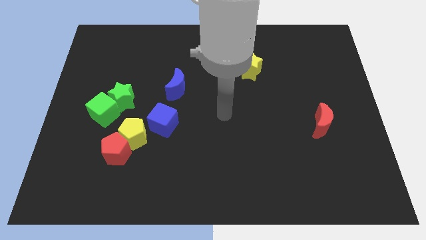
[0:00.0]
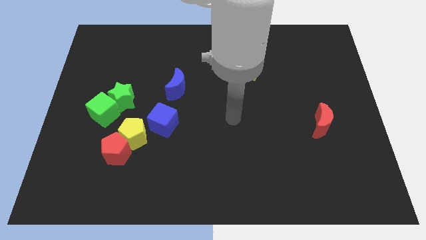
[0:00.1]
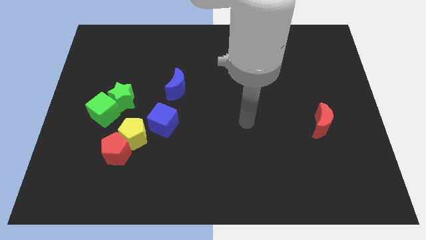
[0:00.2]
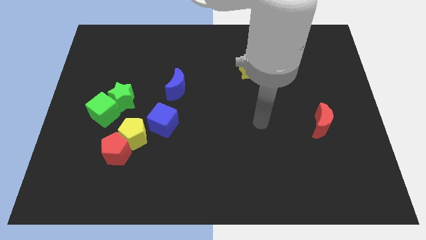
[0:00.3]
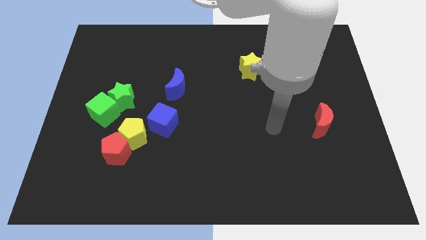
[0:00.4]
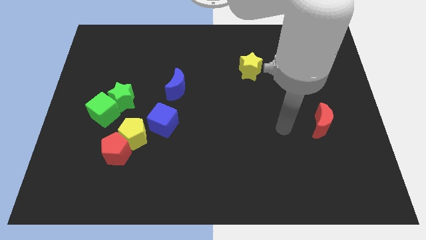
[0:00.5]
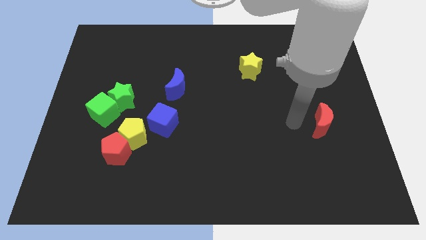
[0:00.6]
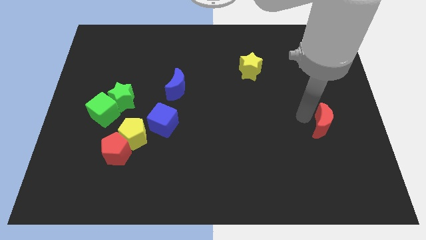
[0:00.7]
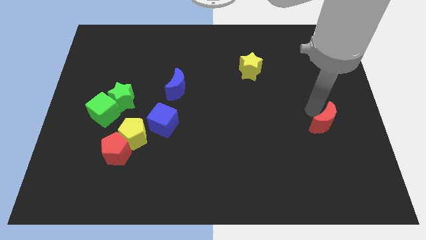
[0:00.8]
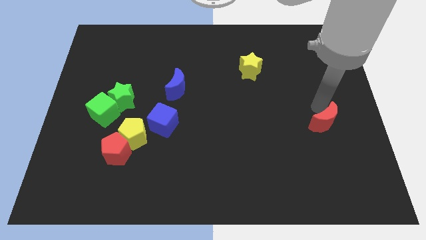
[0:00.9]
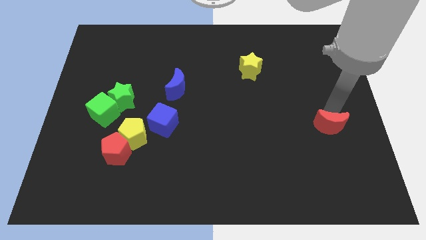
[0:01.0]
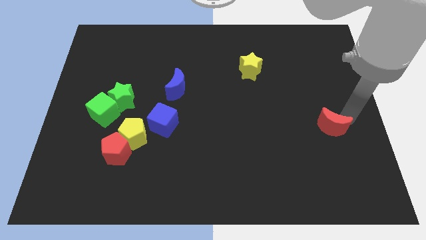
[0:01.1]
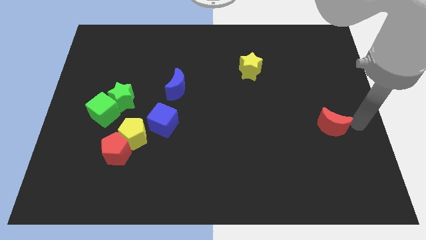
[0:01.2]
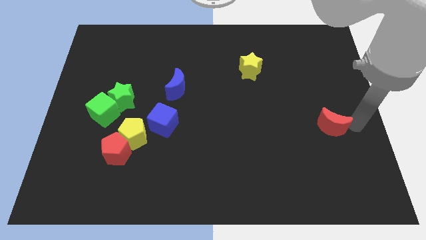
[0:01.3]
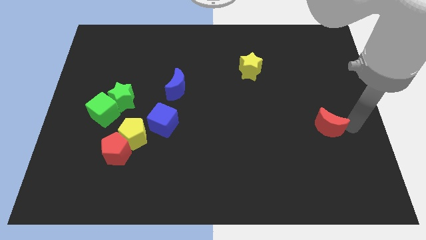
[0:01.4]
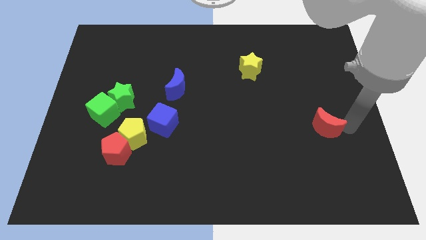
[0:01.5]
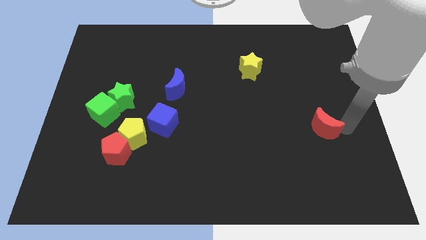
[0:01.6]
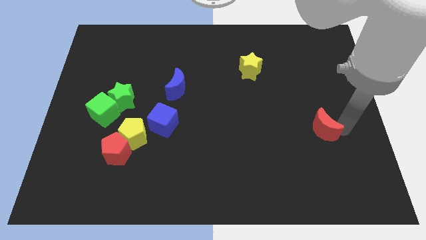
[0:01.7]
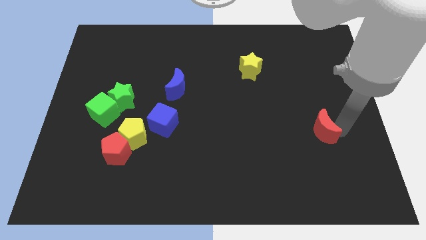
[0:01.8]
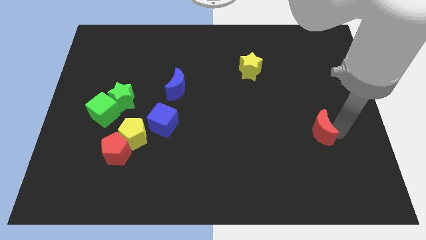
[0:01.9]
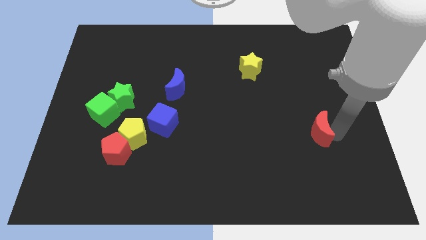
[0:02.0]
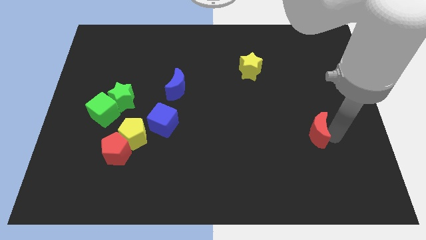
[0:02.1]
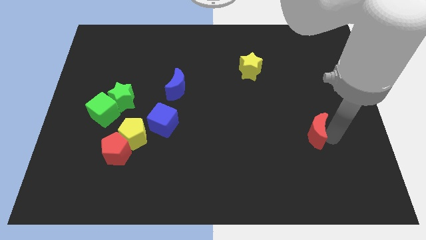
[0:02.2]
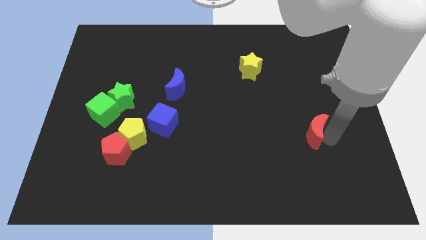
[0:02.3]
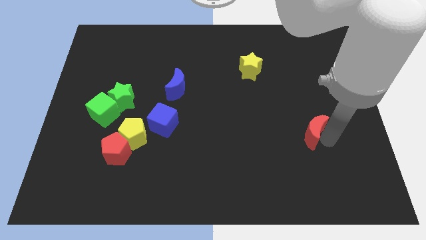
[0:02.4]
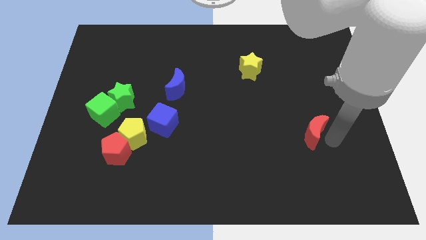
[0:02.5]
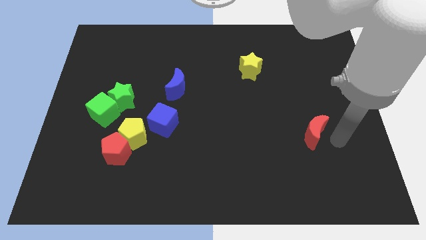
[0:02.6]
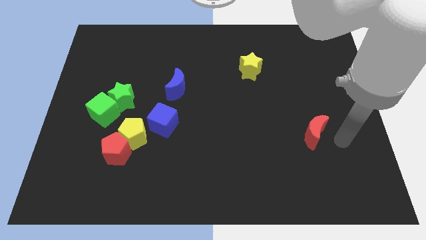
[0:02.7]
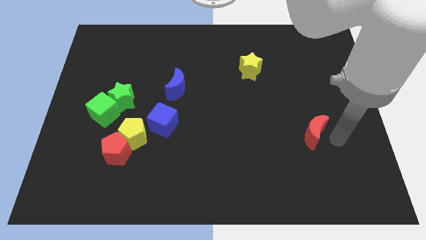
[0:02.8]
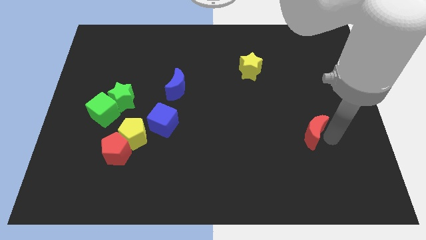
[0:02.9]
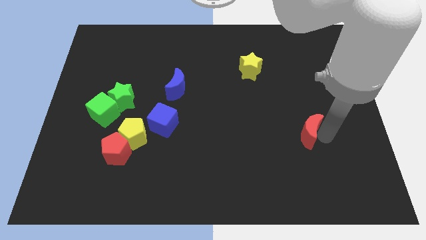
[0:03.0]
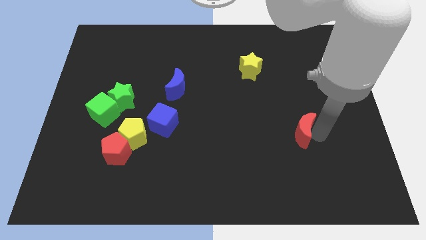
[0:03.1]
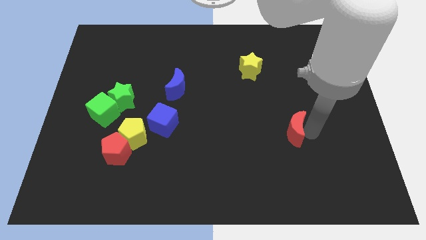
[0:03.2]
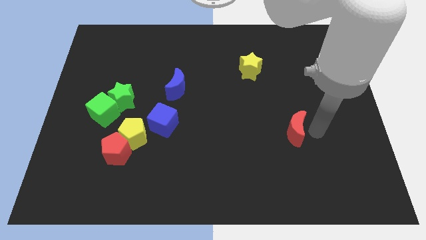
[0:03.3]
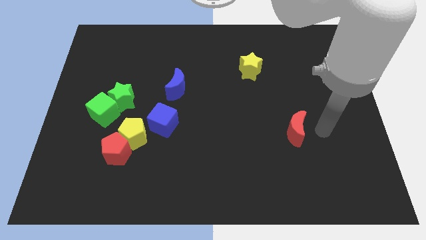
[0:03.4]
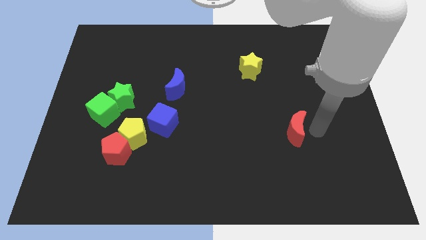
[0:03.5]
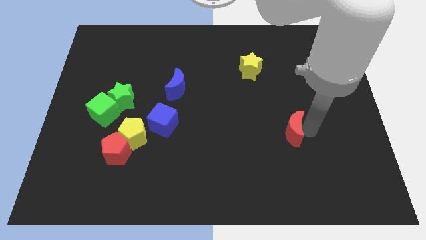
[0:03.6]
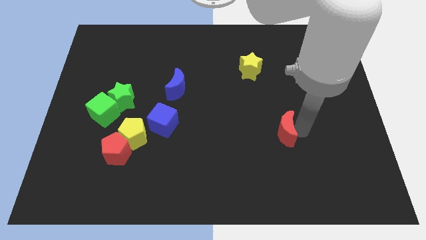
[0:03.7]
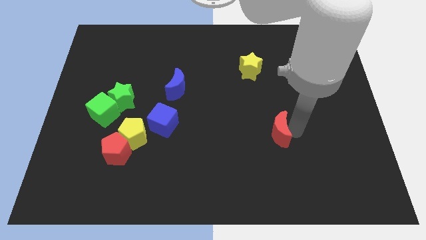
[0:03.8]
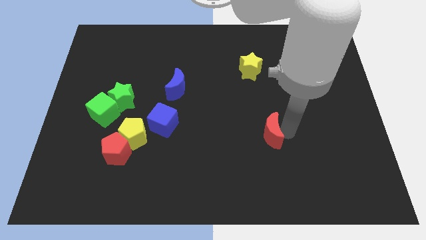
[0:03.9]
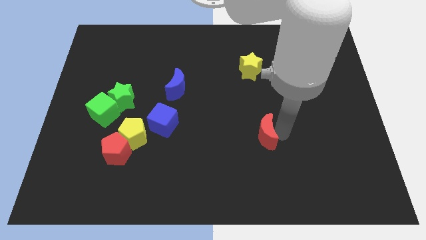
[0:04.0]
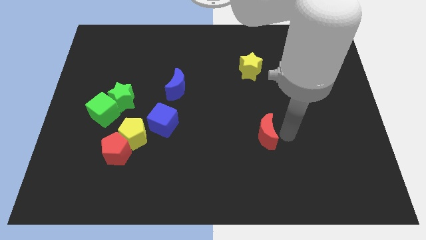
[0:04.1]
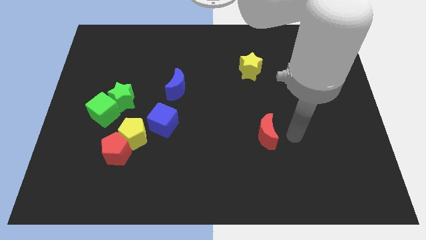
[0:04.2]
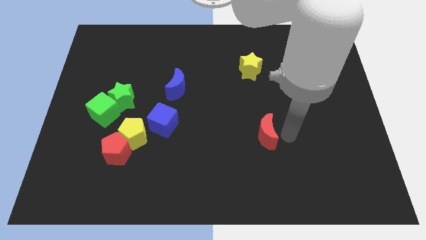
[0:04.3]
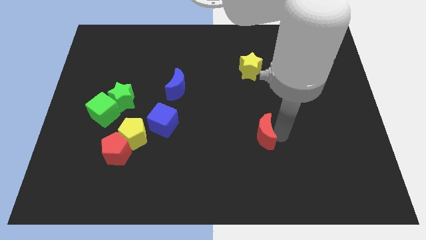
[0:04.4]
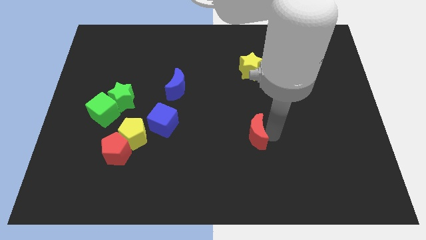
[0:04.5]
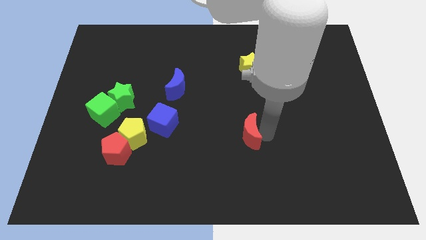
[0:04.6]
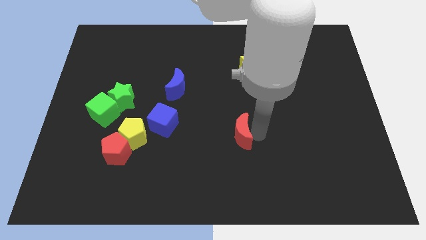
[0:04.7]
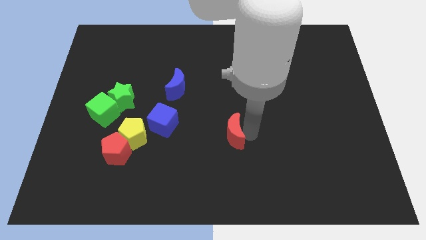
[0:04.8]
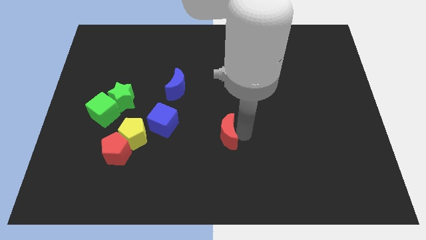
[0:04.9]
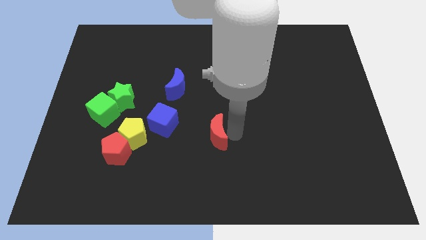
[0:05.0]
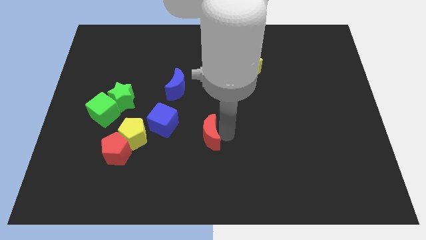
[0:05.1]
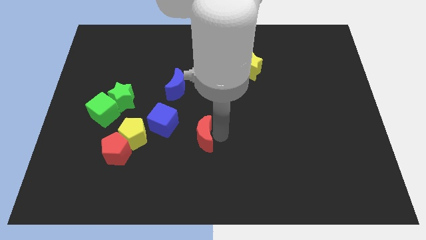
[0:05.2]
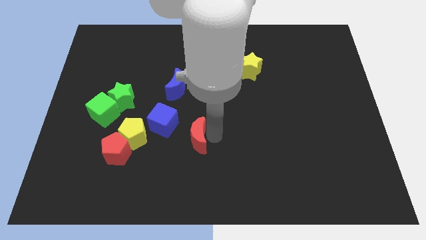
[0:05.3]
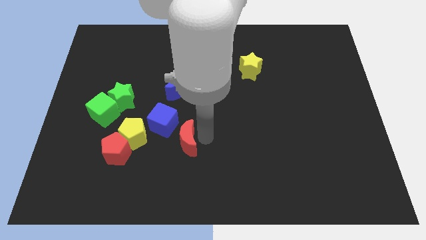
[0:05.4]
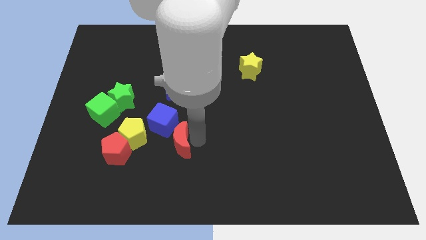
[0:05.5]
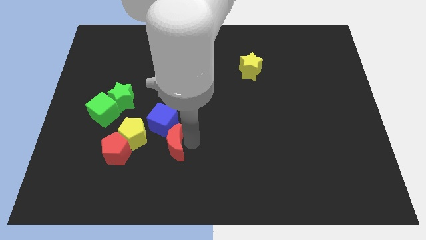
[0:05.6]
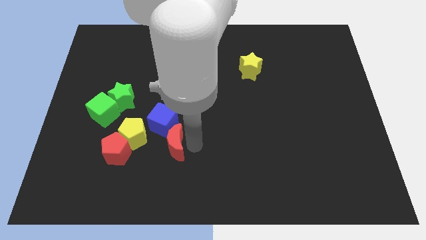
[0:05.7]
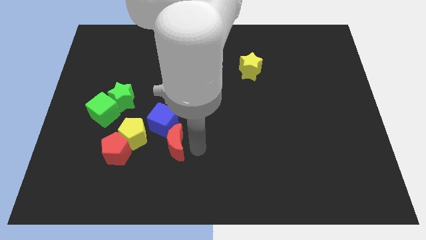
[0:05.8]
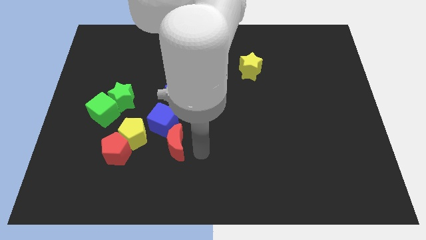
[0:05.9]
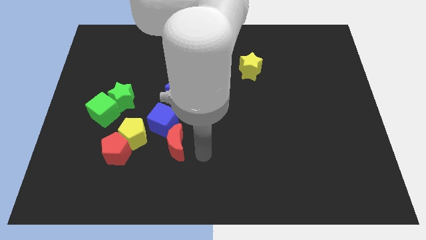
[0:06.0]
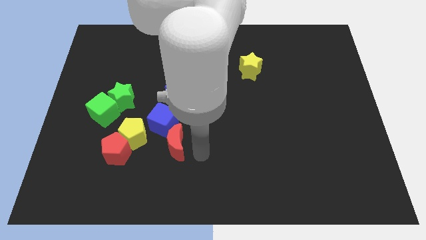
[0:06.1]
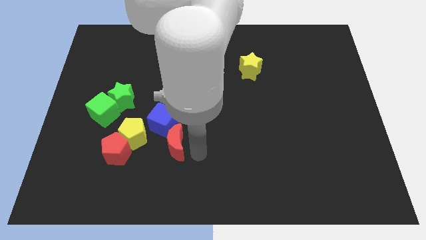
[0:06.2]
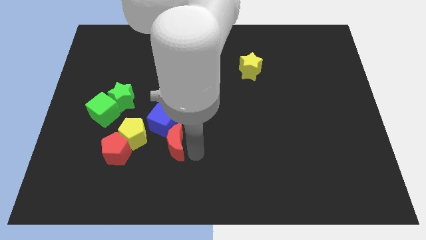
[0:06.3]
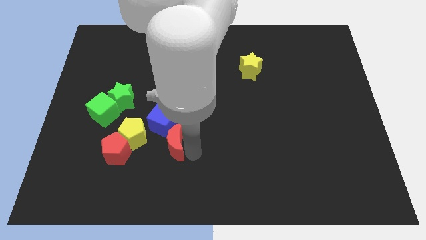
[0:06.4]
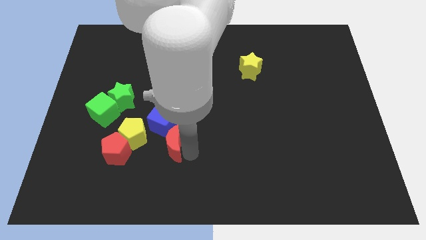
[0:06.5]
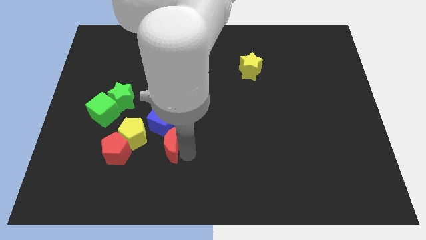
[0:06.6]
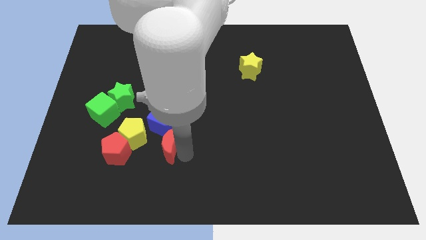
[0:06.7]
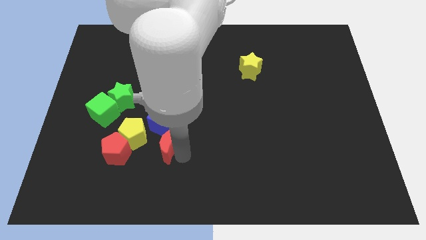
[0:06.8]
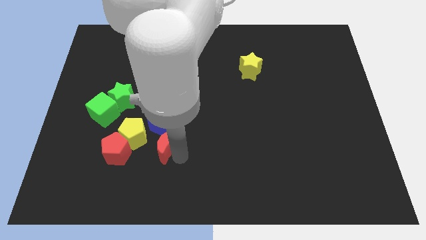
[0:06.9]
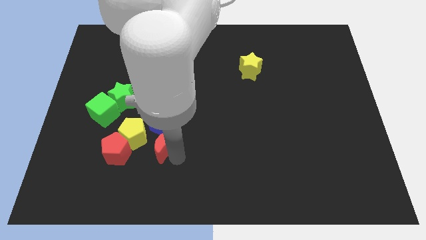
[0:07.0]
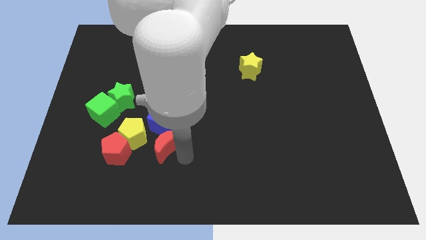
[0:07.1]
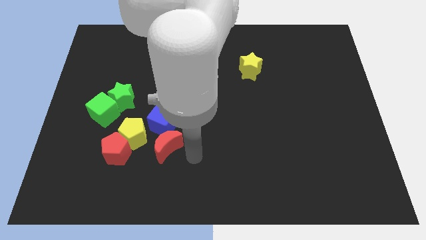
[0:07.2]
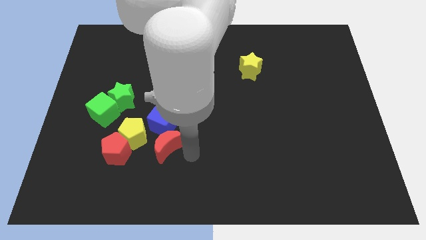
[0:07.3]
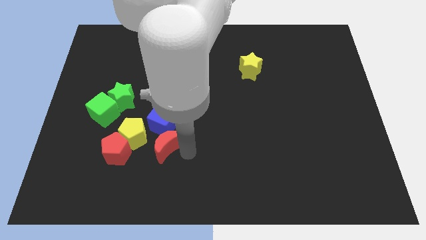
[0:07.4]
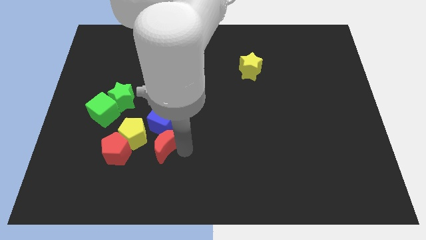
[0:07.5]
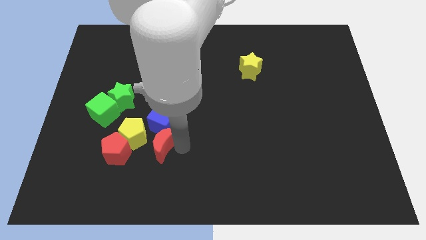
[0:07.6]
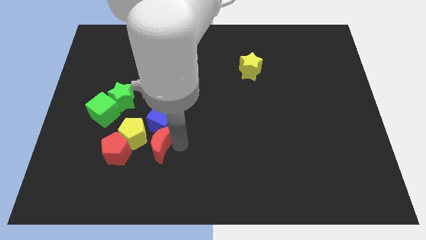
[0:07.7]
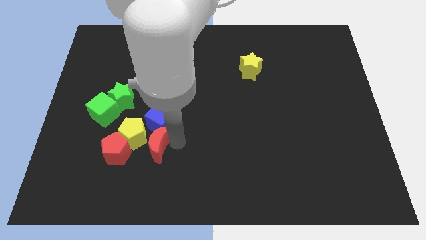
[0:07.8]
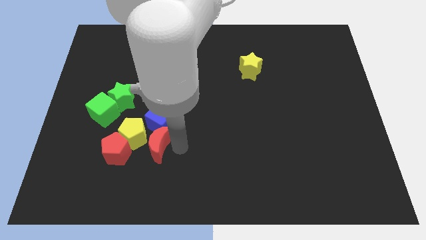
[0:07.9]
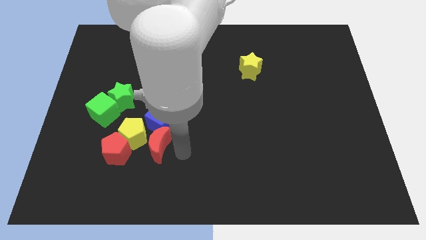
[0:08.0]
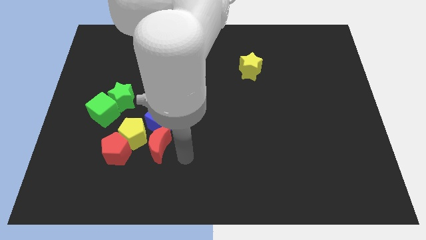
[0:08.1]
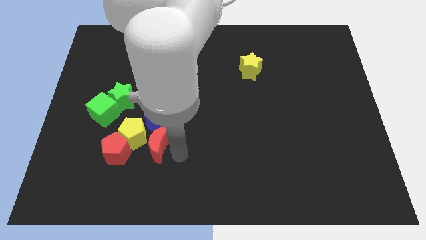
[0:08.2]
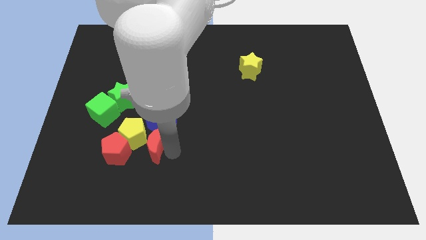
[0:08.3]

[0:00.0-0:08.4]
move the red moon close to the yellow pentagon
